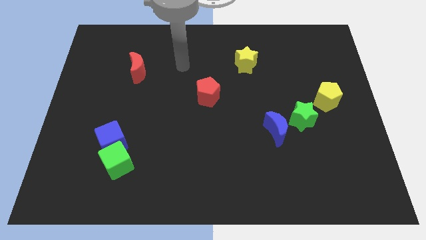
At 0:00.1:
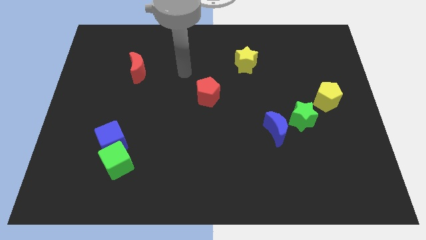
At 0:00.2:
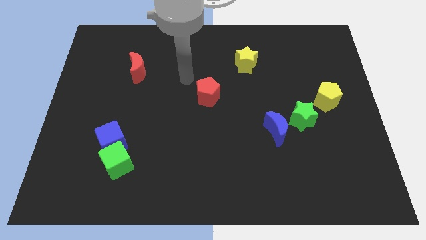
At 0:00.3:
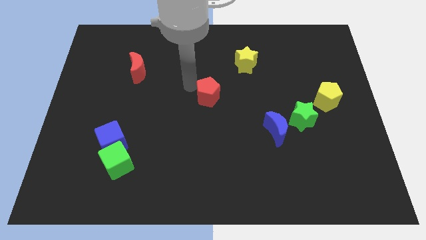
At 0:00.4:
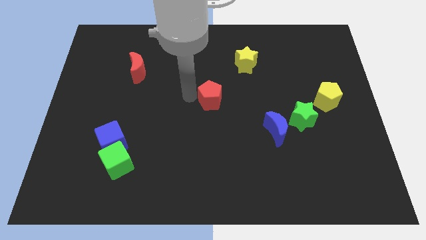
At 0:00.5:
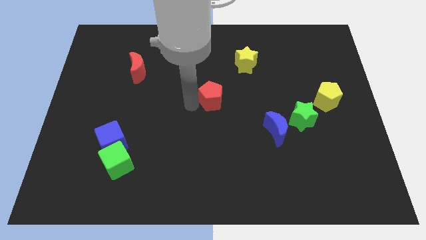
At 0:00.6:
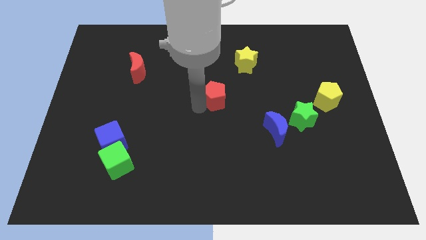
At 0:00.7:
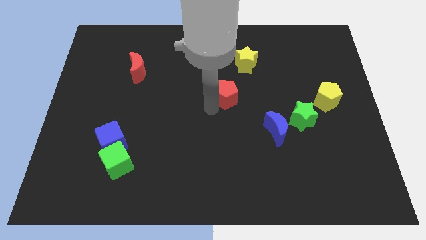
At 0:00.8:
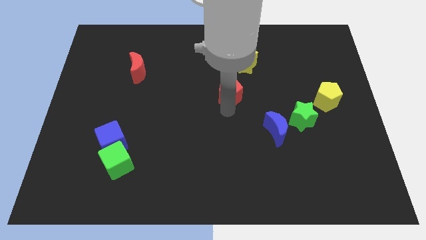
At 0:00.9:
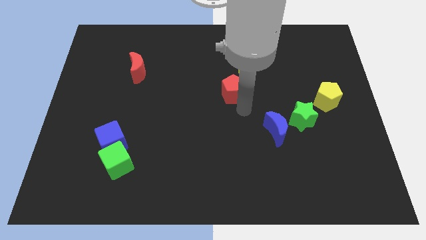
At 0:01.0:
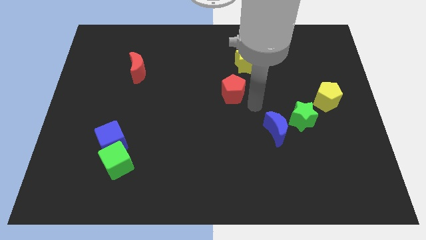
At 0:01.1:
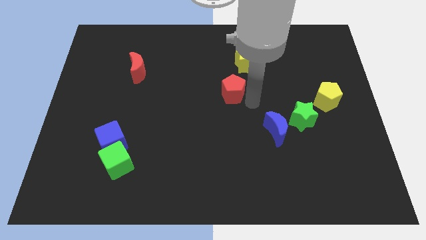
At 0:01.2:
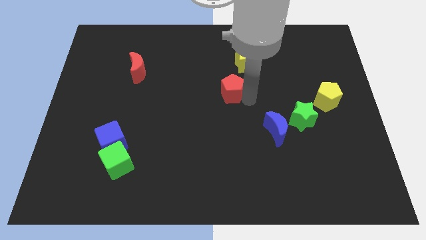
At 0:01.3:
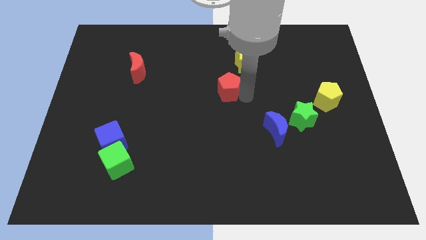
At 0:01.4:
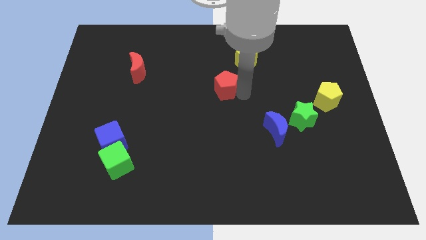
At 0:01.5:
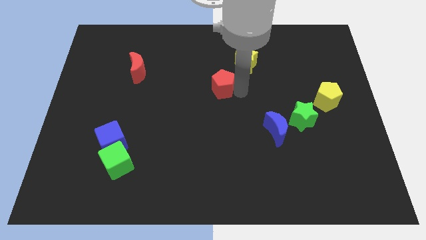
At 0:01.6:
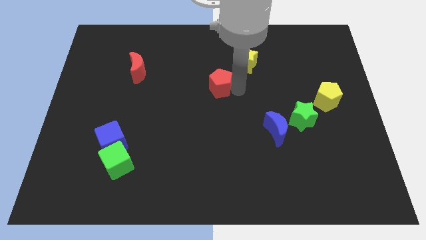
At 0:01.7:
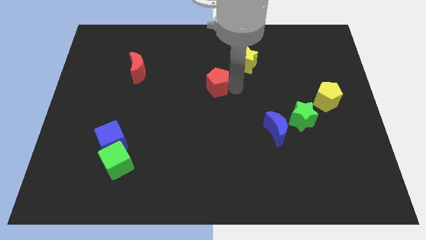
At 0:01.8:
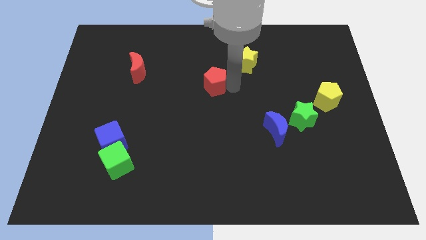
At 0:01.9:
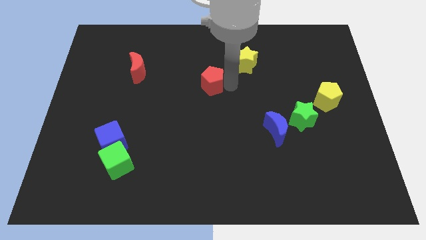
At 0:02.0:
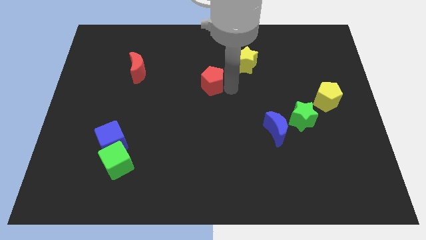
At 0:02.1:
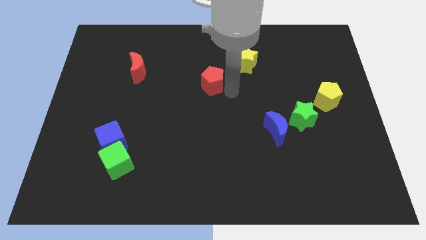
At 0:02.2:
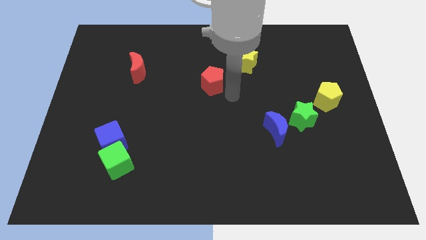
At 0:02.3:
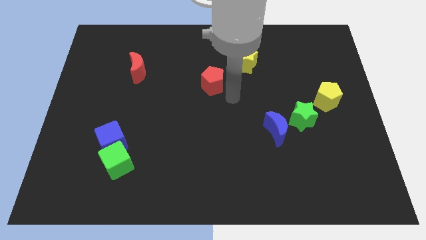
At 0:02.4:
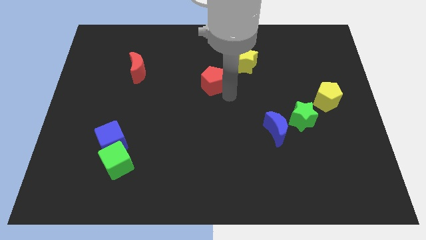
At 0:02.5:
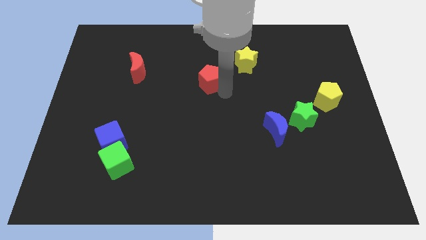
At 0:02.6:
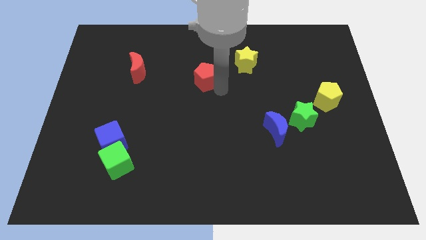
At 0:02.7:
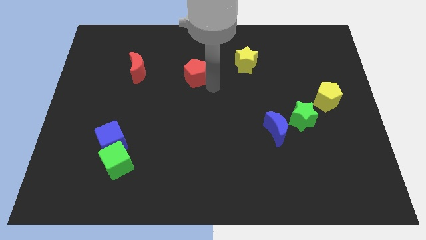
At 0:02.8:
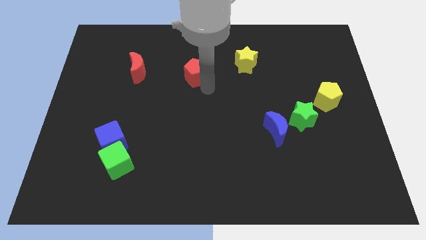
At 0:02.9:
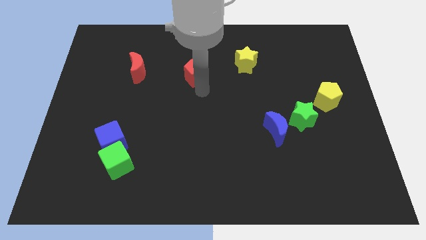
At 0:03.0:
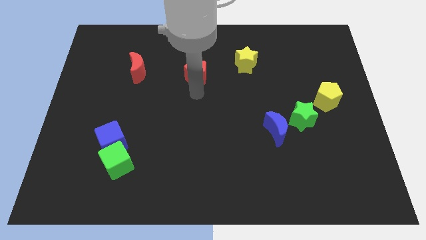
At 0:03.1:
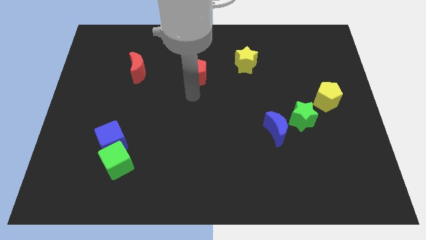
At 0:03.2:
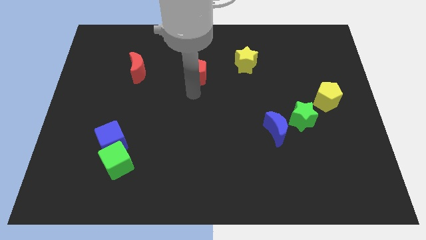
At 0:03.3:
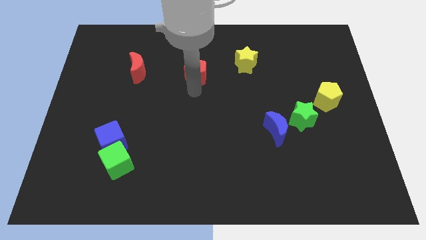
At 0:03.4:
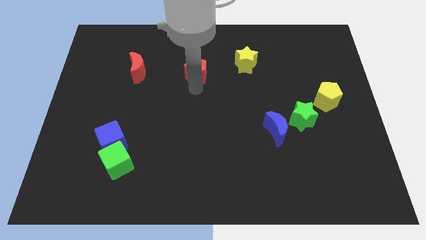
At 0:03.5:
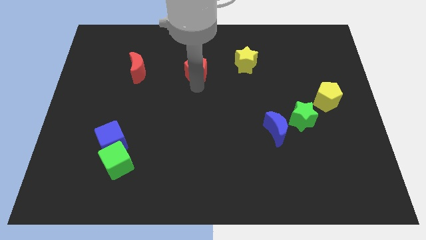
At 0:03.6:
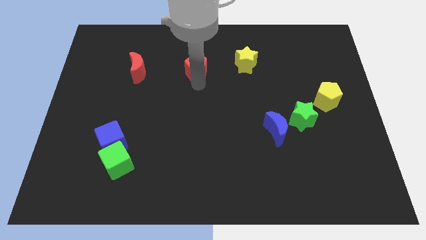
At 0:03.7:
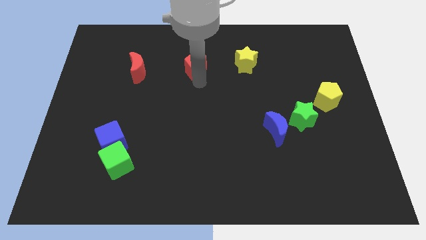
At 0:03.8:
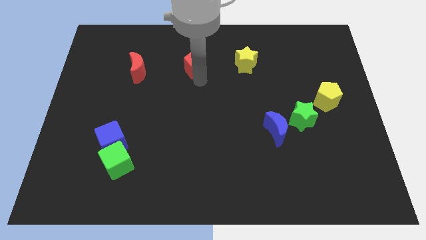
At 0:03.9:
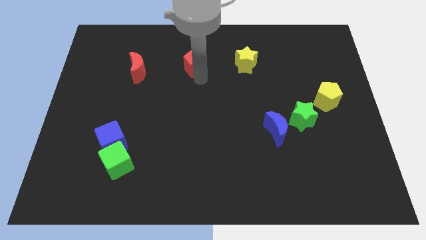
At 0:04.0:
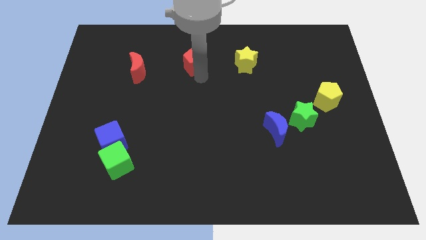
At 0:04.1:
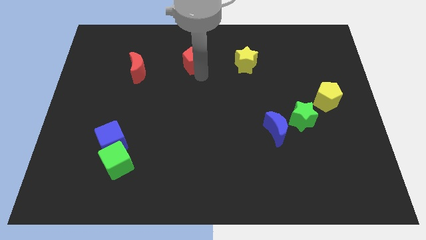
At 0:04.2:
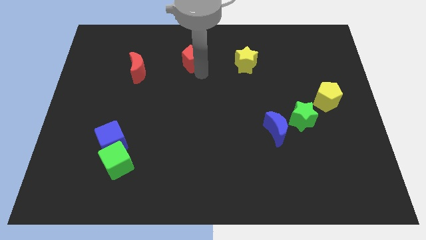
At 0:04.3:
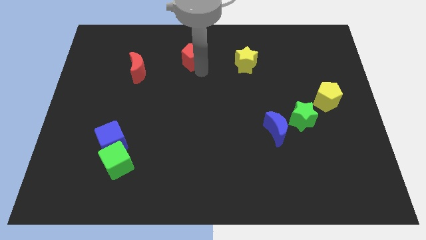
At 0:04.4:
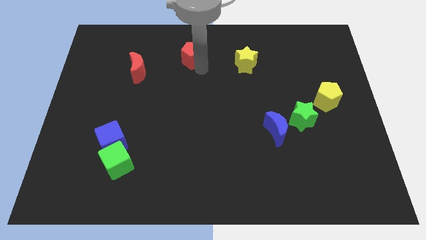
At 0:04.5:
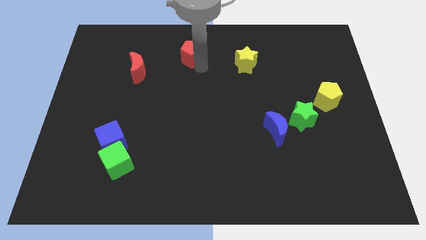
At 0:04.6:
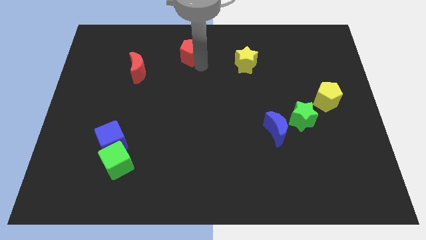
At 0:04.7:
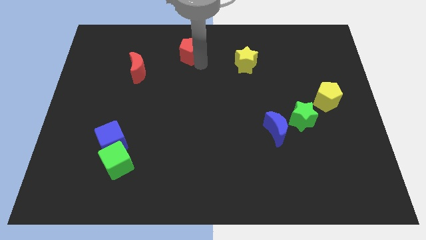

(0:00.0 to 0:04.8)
push the red pentagon to the top

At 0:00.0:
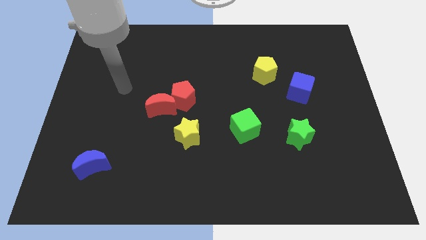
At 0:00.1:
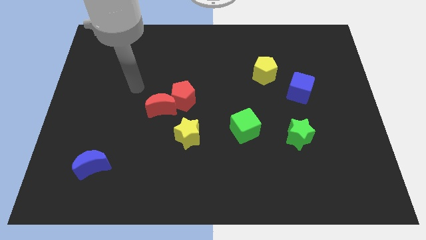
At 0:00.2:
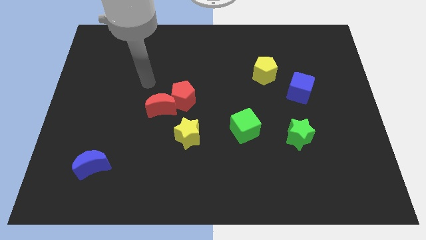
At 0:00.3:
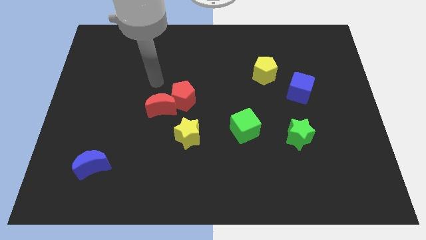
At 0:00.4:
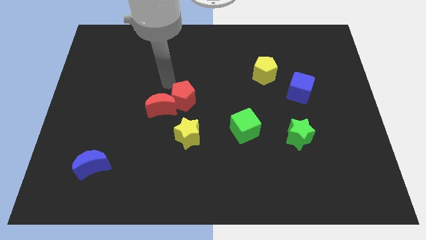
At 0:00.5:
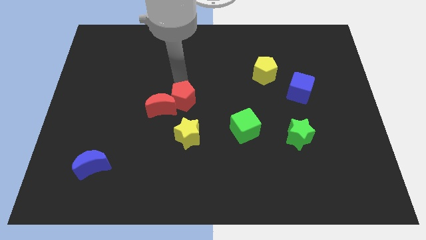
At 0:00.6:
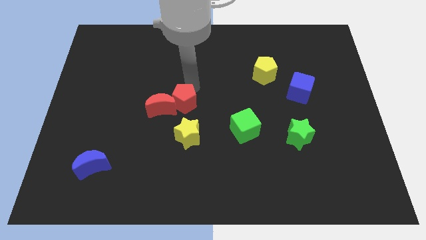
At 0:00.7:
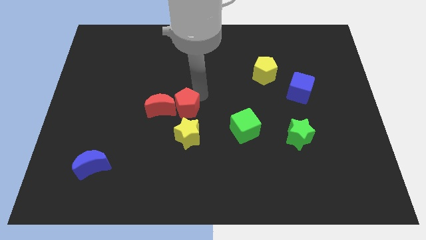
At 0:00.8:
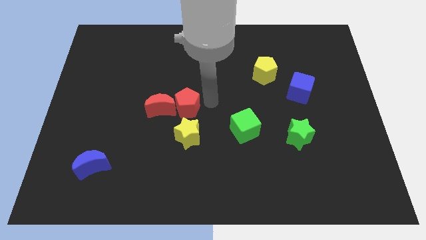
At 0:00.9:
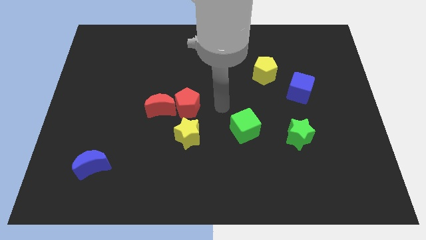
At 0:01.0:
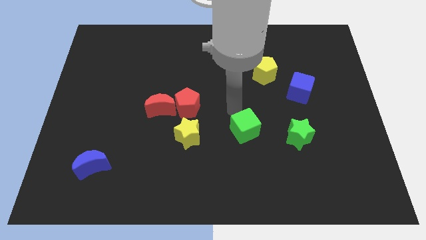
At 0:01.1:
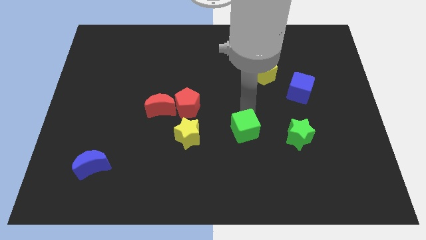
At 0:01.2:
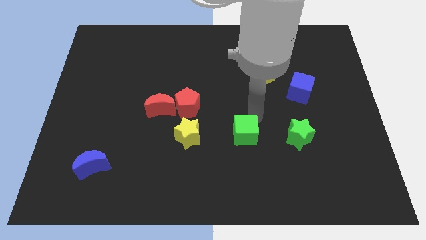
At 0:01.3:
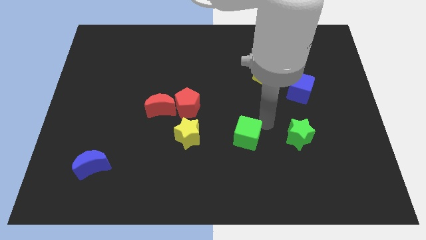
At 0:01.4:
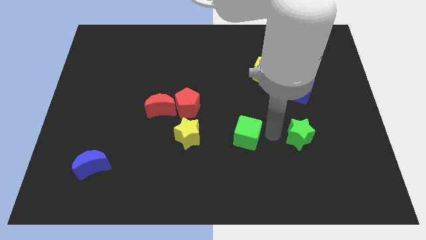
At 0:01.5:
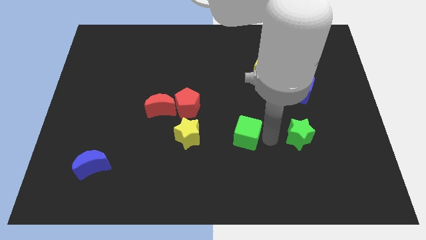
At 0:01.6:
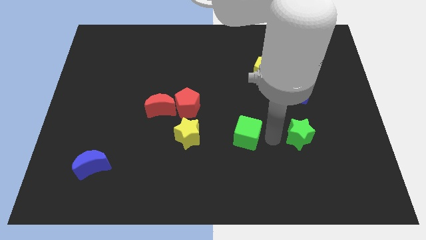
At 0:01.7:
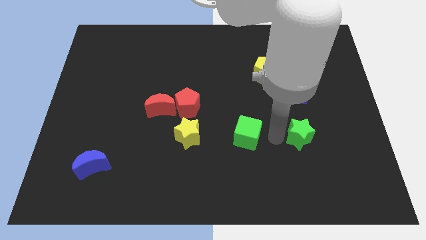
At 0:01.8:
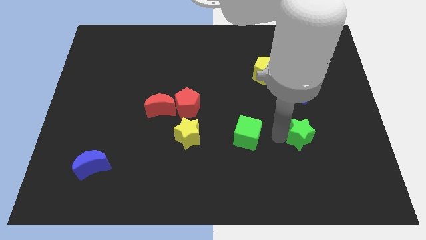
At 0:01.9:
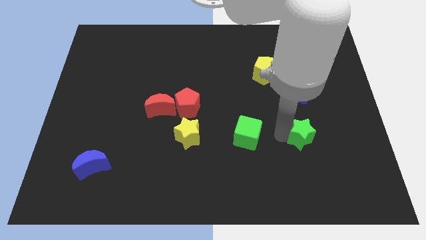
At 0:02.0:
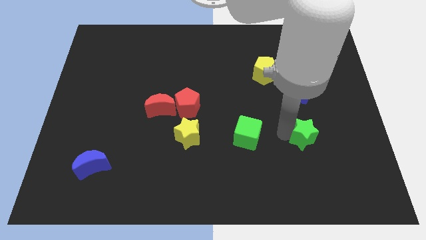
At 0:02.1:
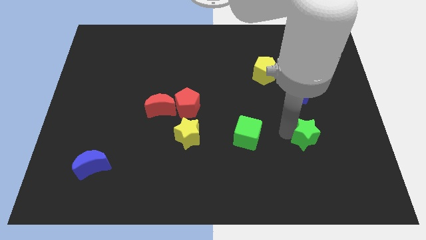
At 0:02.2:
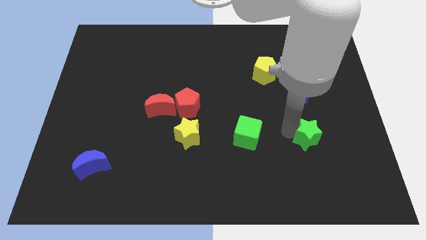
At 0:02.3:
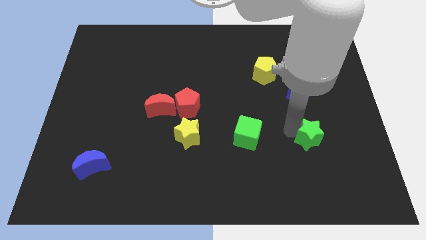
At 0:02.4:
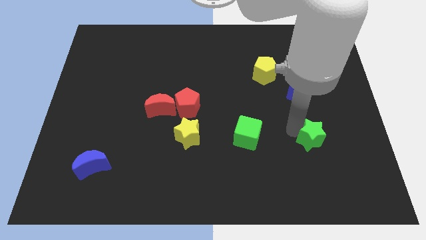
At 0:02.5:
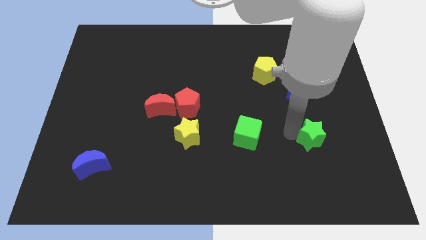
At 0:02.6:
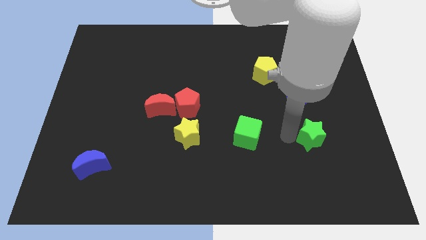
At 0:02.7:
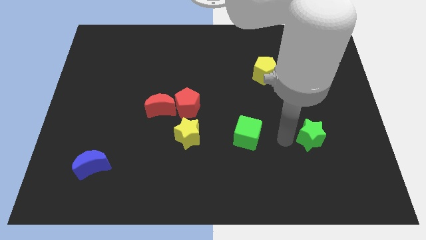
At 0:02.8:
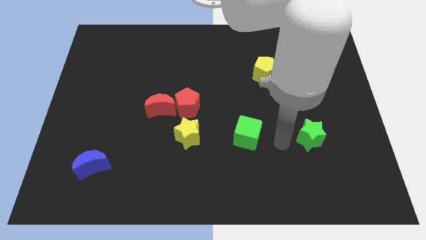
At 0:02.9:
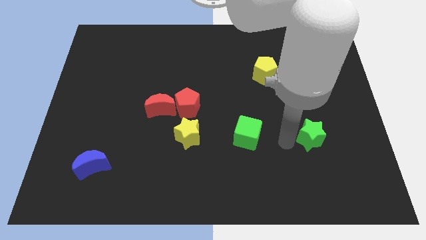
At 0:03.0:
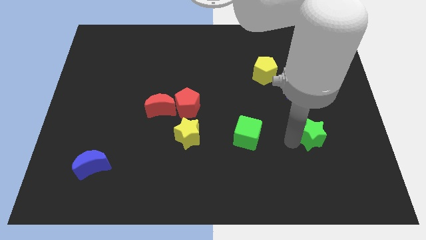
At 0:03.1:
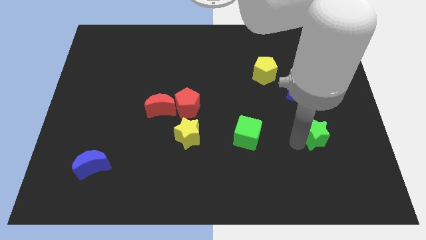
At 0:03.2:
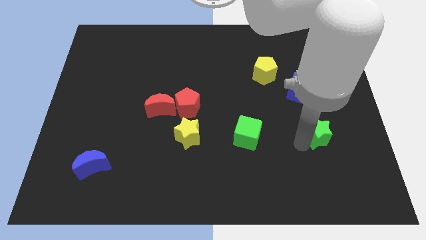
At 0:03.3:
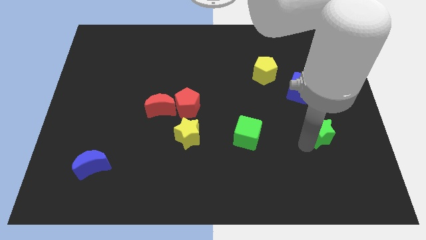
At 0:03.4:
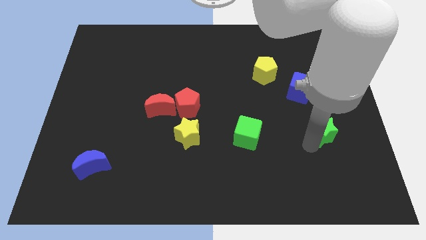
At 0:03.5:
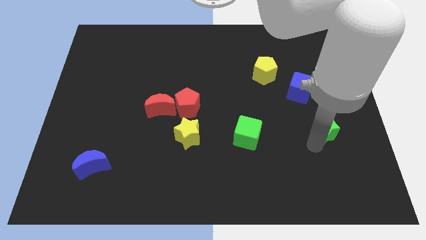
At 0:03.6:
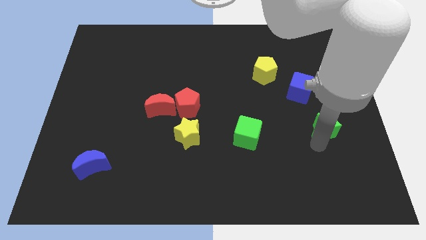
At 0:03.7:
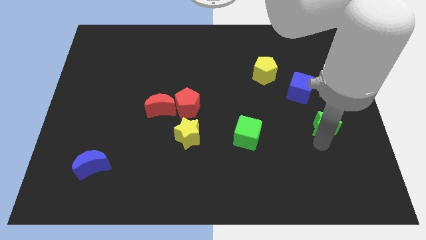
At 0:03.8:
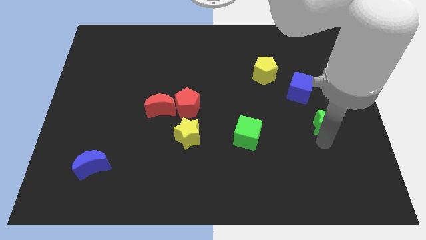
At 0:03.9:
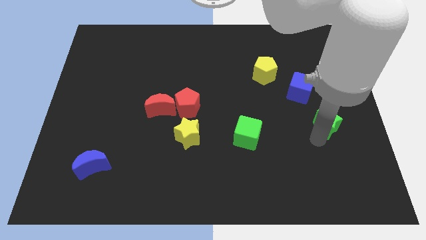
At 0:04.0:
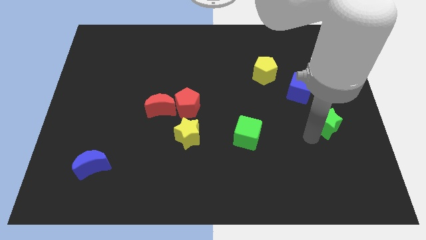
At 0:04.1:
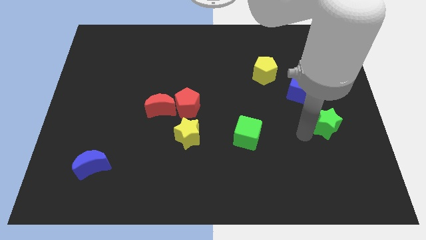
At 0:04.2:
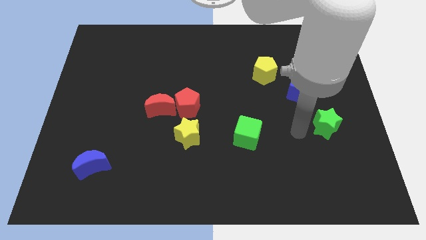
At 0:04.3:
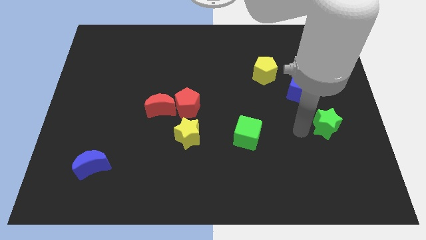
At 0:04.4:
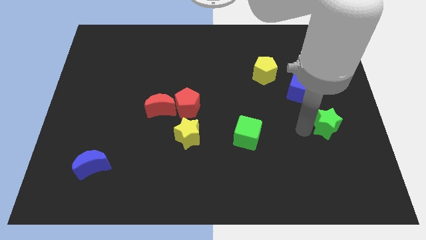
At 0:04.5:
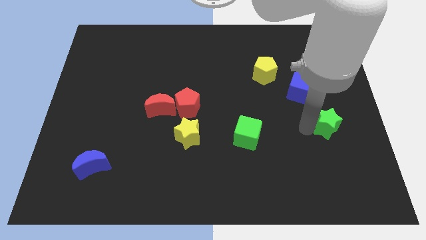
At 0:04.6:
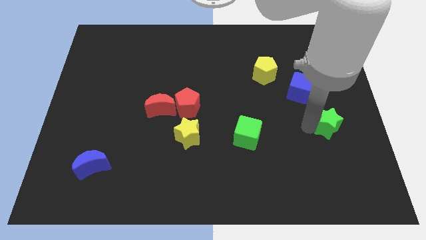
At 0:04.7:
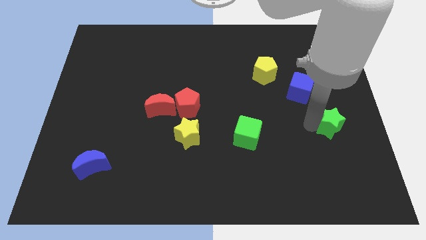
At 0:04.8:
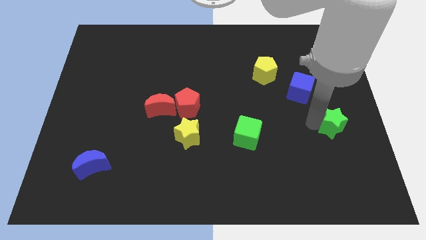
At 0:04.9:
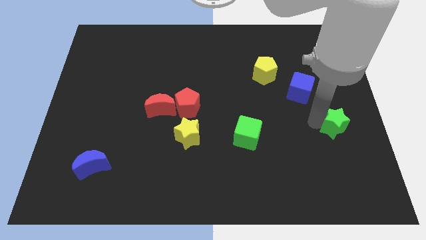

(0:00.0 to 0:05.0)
put the green star to the right side of the board
